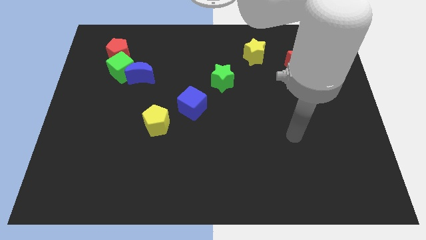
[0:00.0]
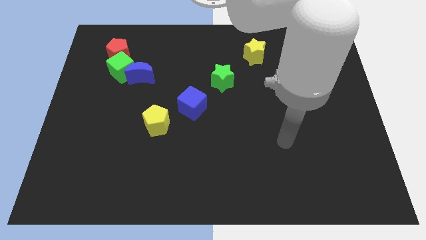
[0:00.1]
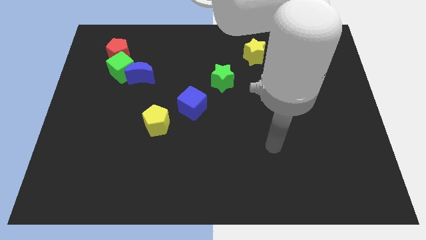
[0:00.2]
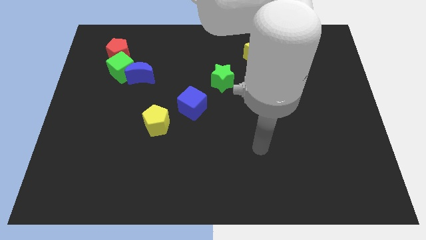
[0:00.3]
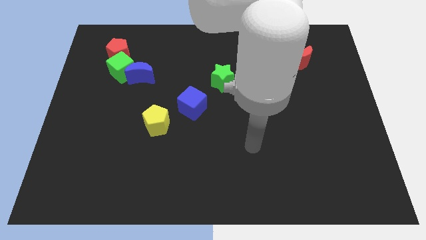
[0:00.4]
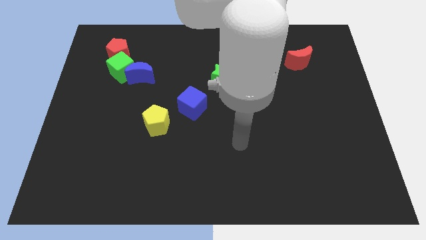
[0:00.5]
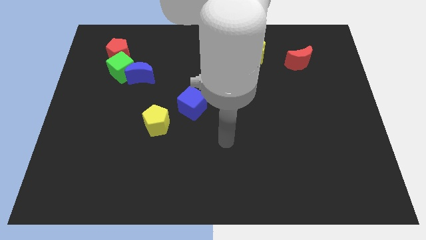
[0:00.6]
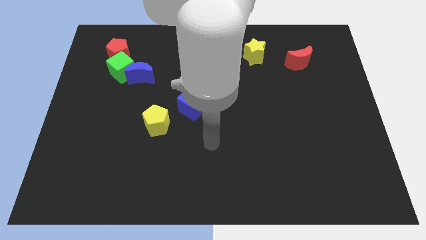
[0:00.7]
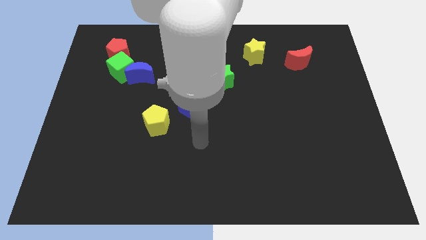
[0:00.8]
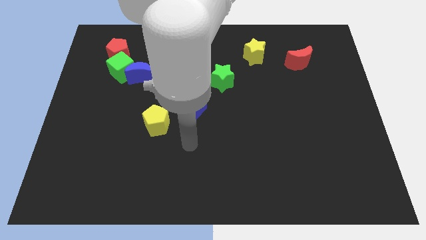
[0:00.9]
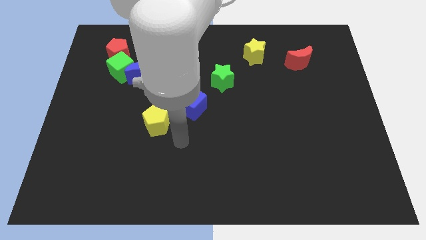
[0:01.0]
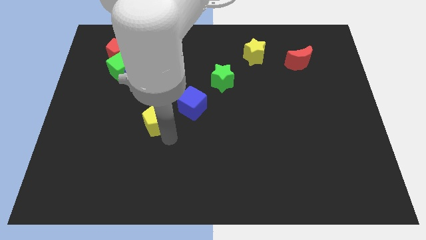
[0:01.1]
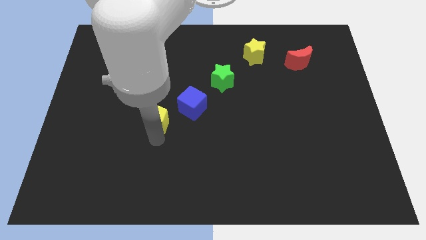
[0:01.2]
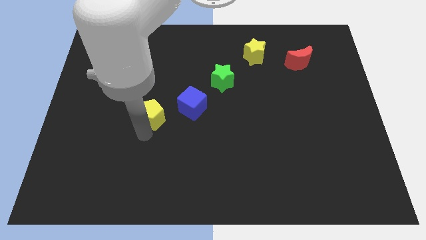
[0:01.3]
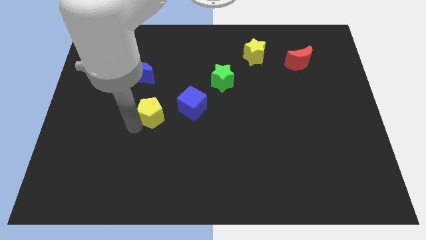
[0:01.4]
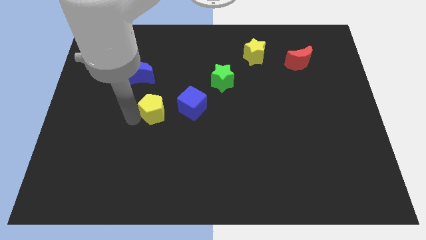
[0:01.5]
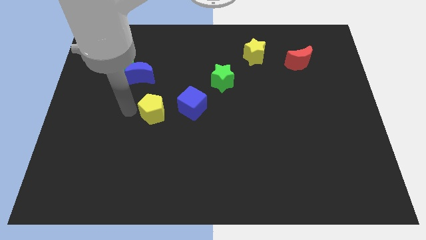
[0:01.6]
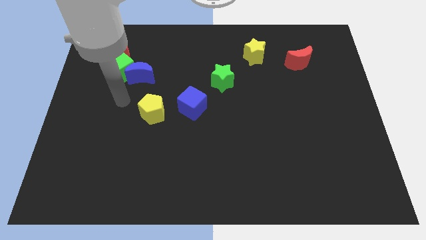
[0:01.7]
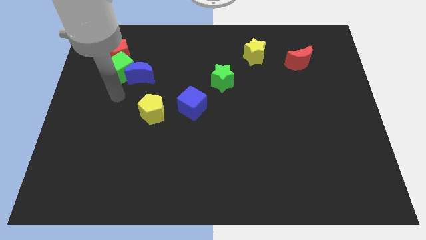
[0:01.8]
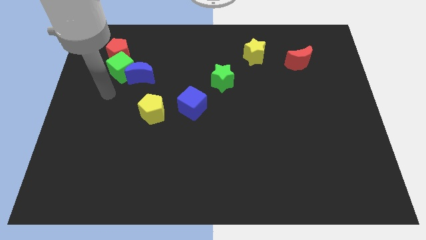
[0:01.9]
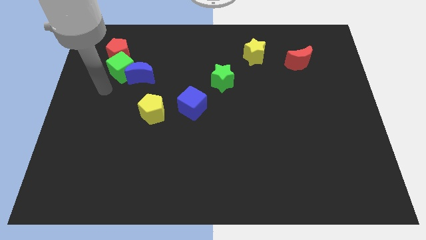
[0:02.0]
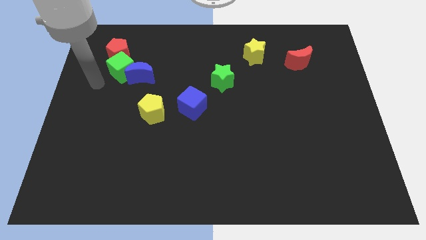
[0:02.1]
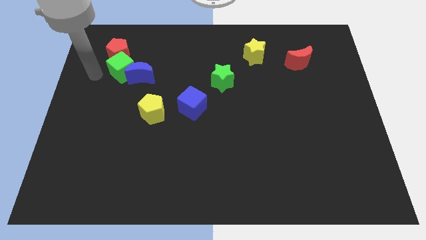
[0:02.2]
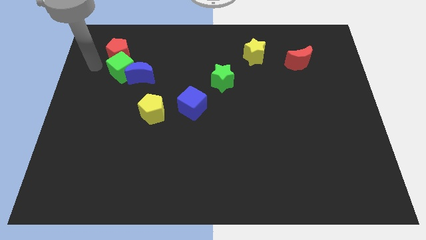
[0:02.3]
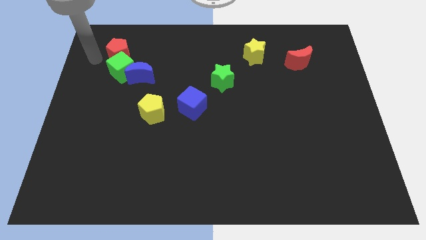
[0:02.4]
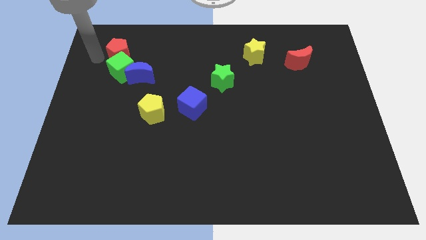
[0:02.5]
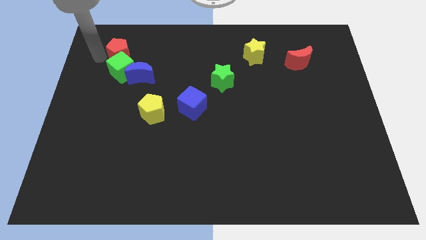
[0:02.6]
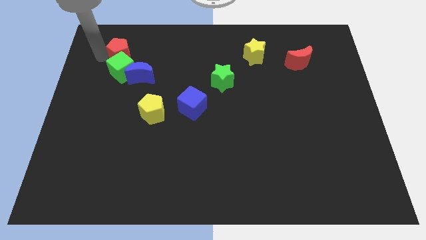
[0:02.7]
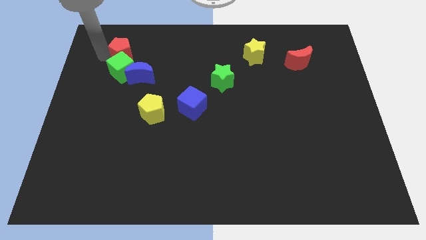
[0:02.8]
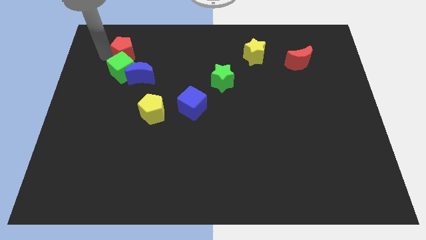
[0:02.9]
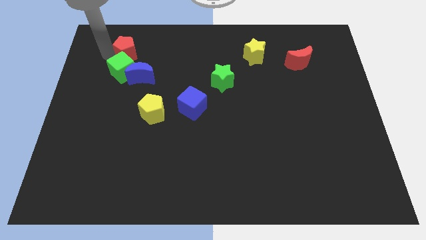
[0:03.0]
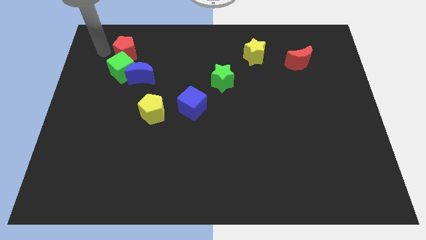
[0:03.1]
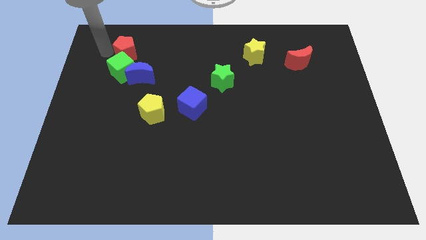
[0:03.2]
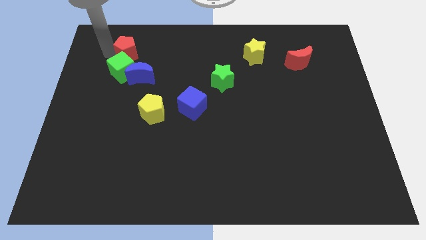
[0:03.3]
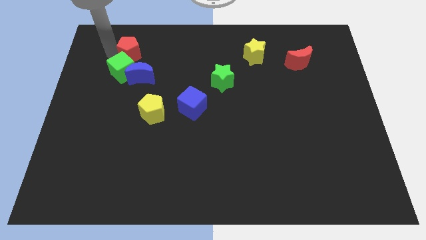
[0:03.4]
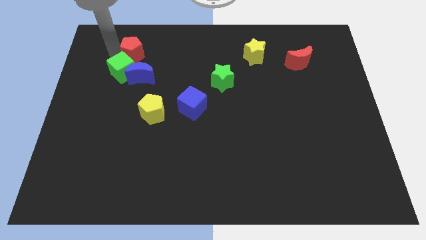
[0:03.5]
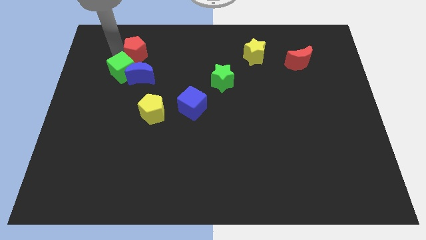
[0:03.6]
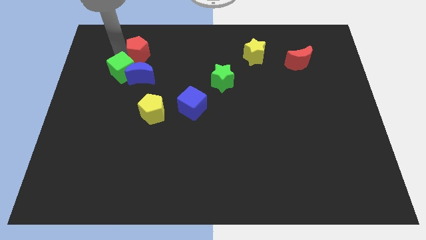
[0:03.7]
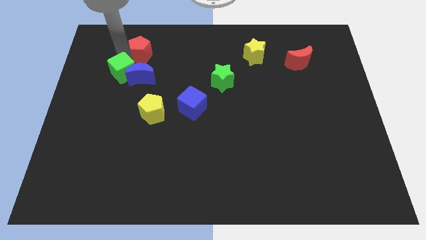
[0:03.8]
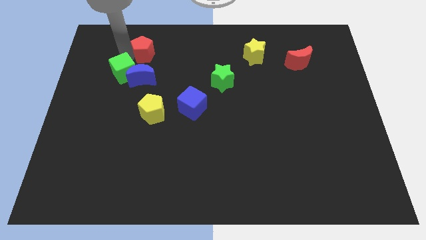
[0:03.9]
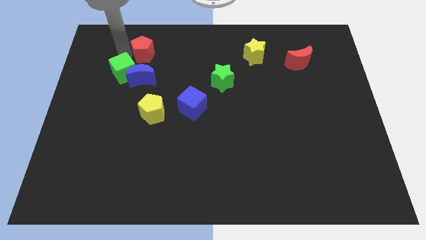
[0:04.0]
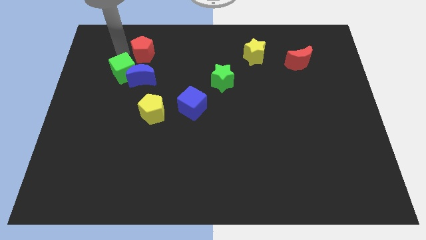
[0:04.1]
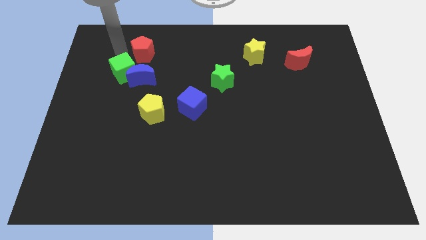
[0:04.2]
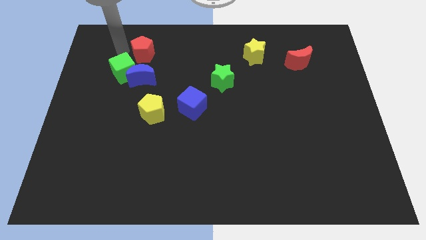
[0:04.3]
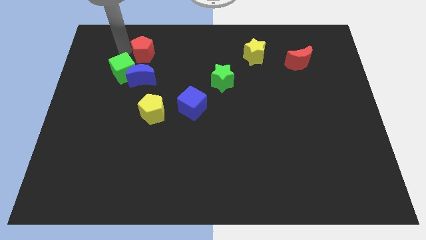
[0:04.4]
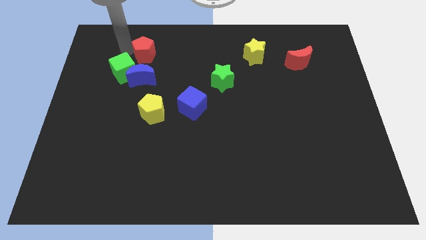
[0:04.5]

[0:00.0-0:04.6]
push the red pentagon to the right slightly

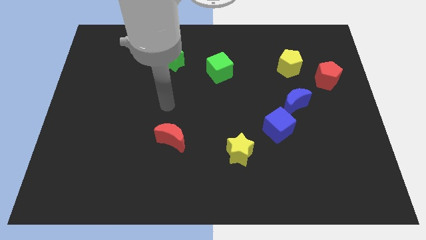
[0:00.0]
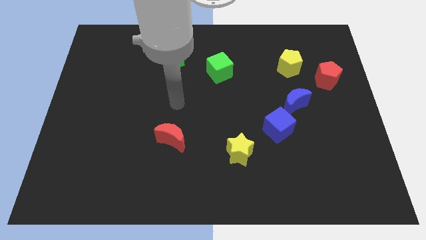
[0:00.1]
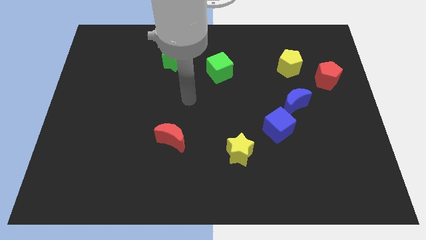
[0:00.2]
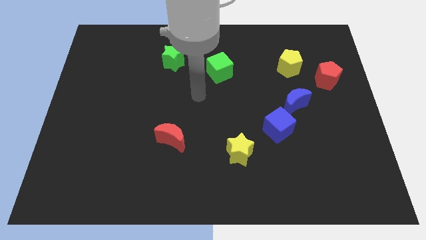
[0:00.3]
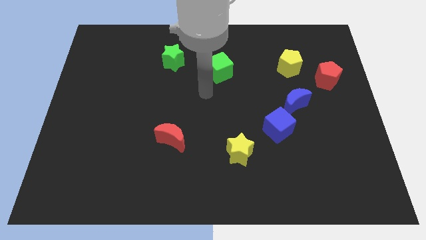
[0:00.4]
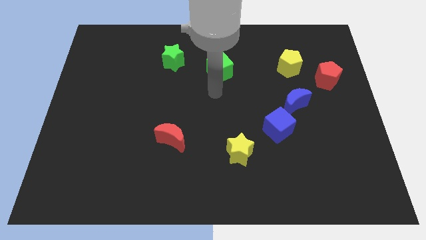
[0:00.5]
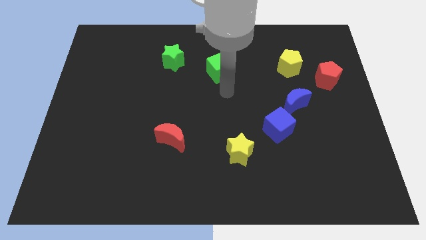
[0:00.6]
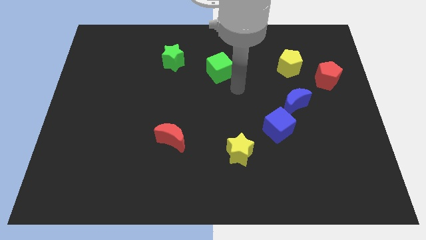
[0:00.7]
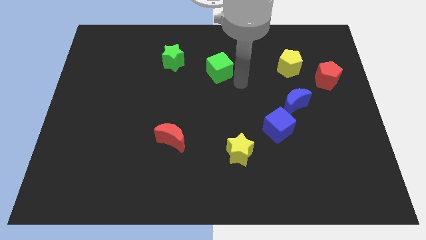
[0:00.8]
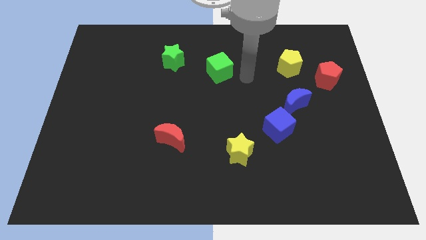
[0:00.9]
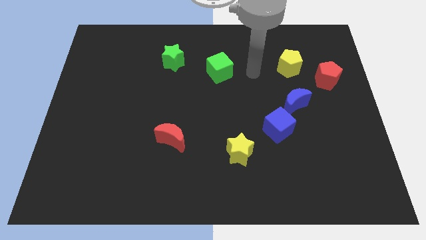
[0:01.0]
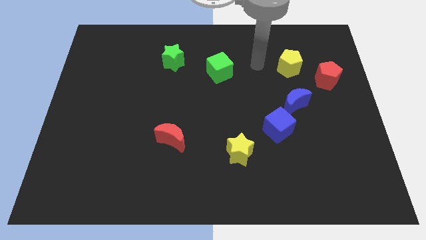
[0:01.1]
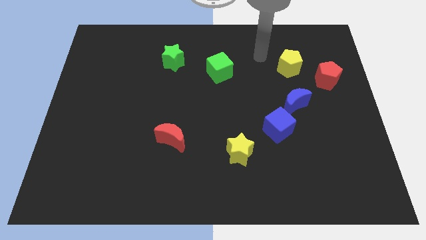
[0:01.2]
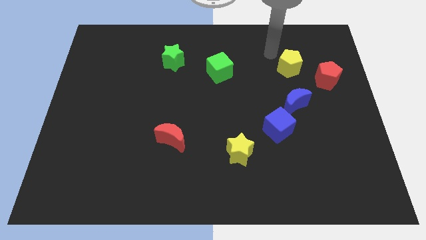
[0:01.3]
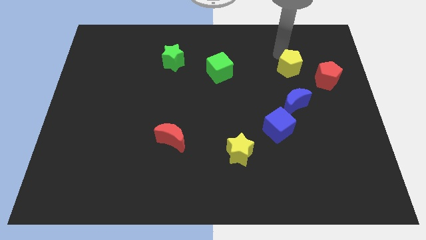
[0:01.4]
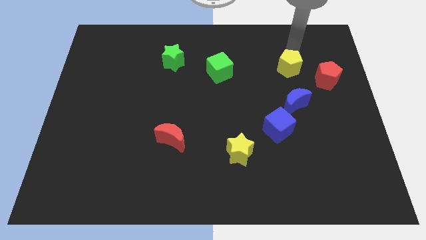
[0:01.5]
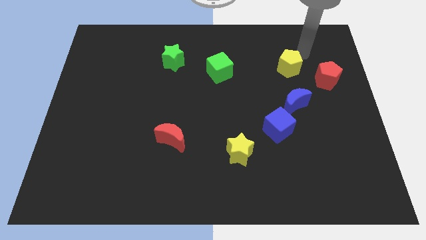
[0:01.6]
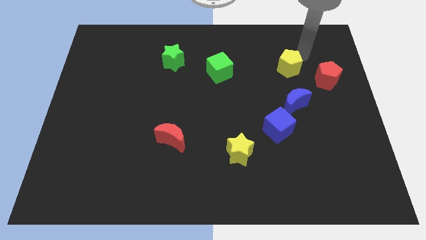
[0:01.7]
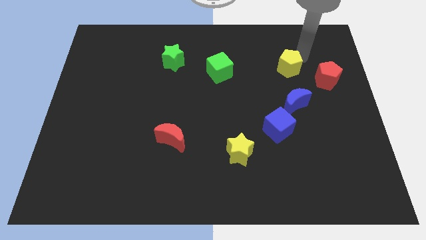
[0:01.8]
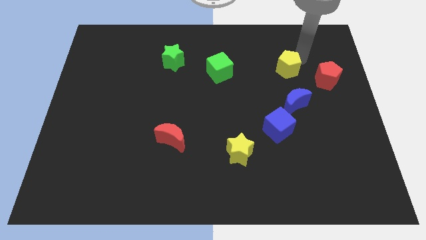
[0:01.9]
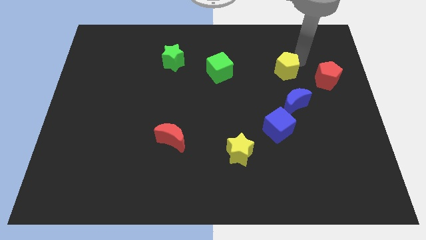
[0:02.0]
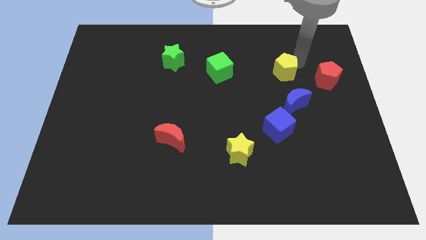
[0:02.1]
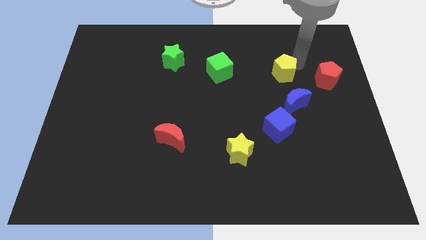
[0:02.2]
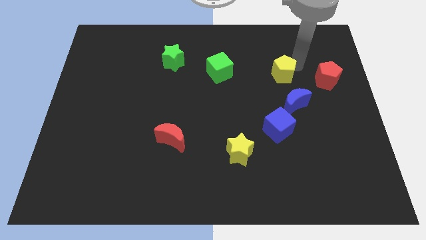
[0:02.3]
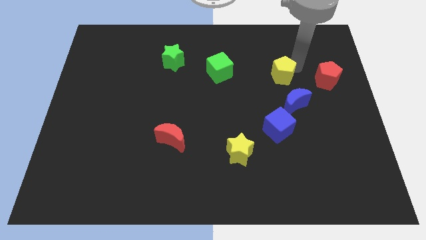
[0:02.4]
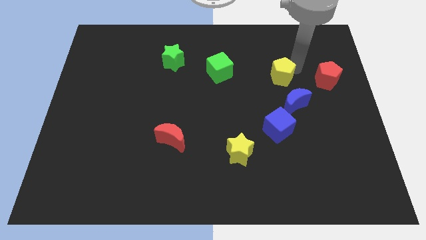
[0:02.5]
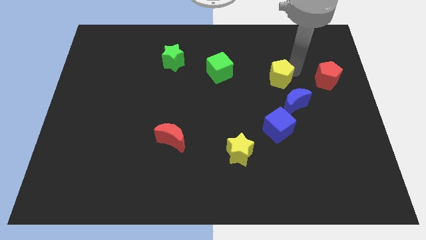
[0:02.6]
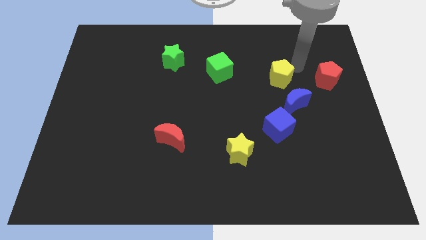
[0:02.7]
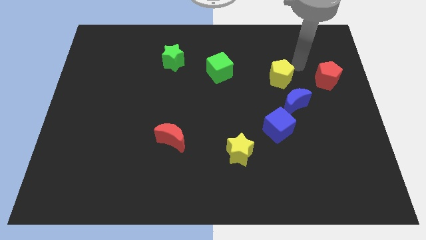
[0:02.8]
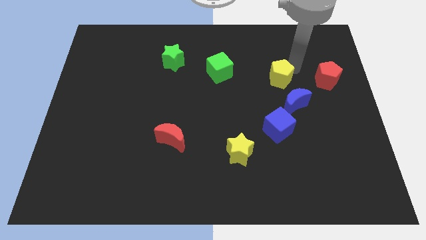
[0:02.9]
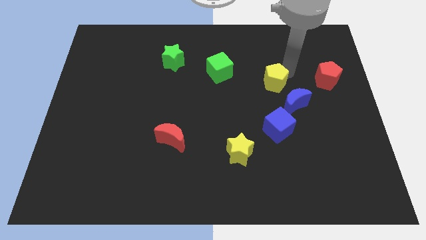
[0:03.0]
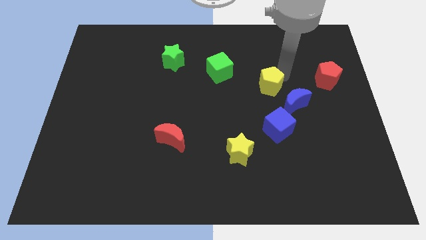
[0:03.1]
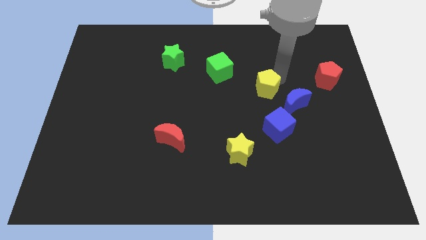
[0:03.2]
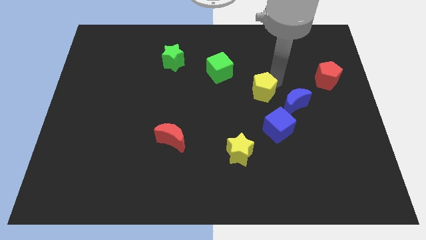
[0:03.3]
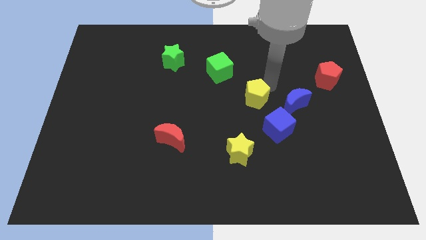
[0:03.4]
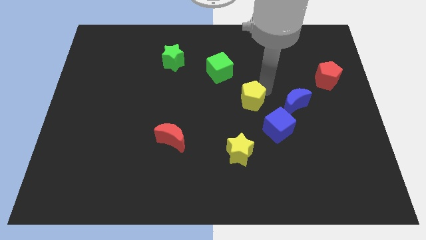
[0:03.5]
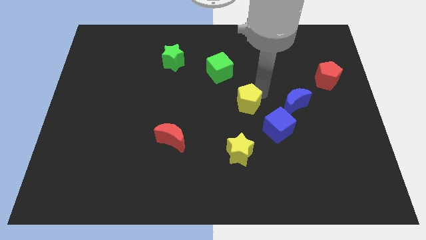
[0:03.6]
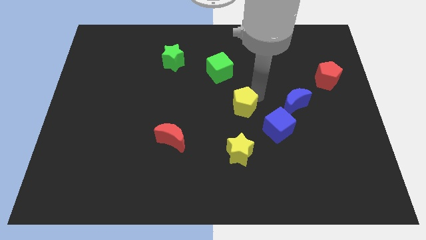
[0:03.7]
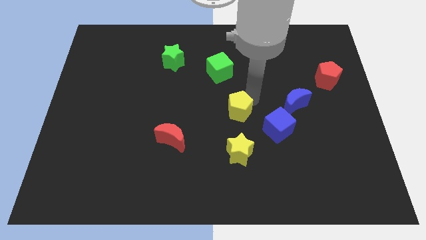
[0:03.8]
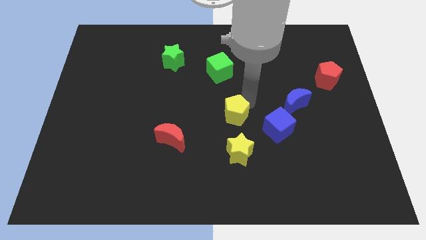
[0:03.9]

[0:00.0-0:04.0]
slide the yellow pentagon downwards and left diagonally
